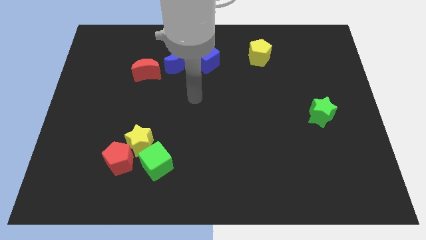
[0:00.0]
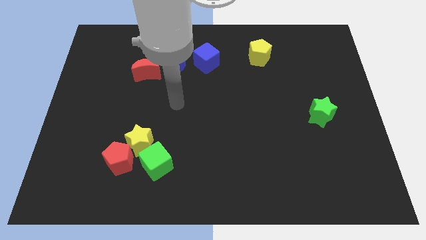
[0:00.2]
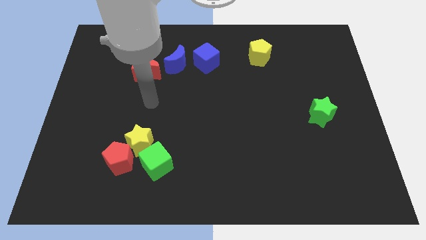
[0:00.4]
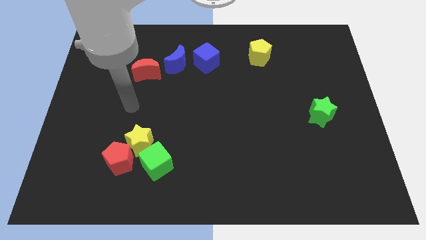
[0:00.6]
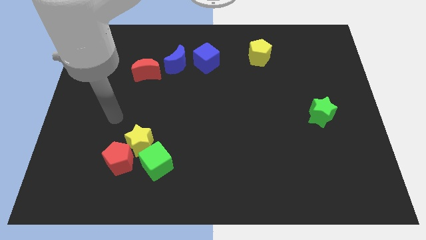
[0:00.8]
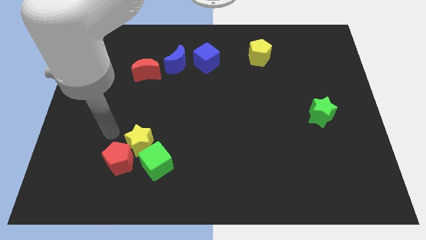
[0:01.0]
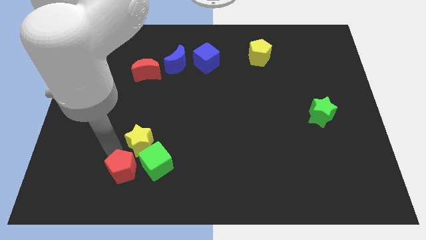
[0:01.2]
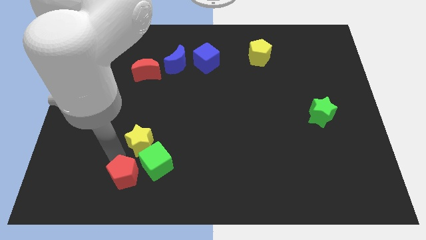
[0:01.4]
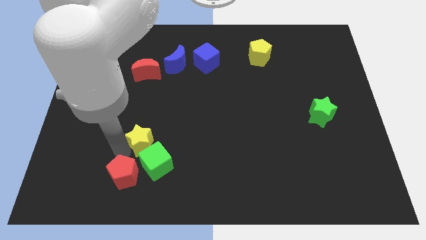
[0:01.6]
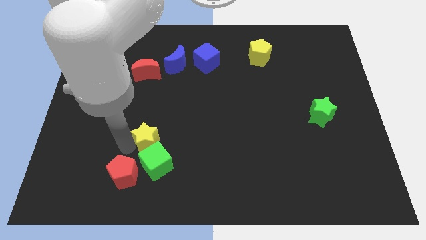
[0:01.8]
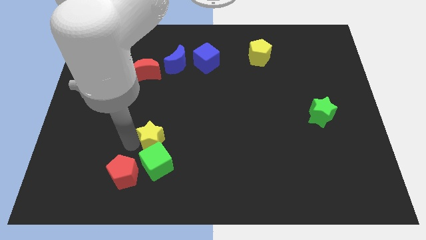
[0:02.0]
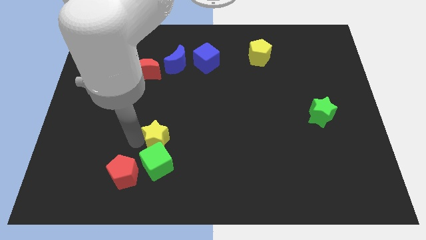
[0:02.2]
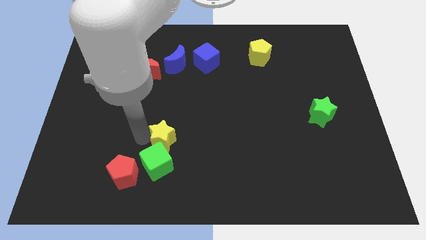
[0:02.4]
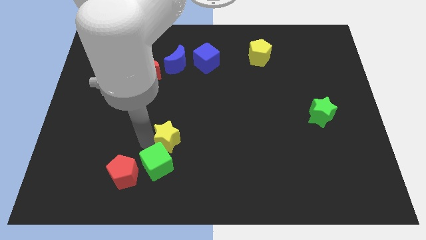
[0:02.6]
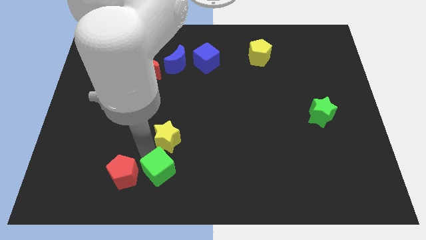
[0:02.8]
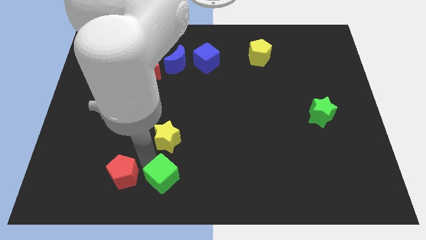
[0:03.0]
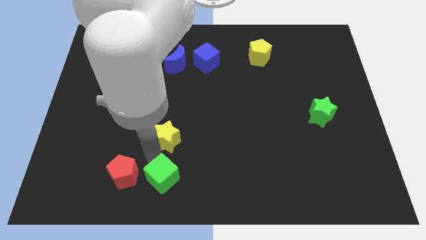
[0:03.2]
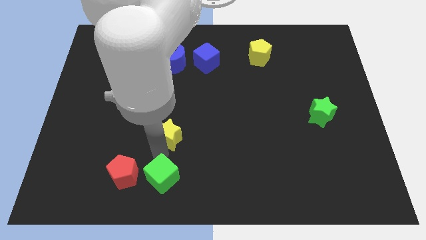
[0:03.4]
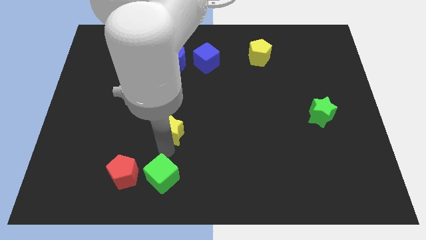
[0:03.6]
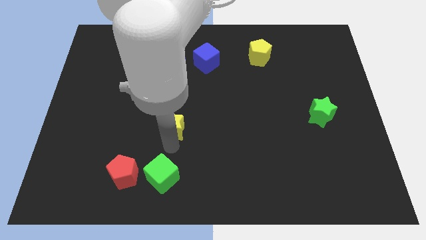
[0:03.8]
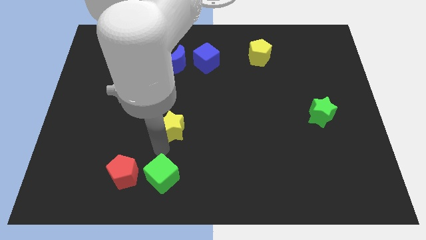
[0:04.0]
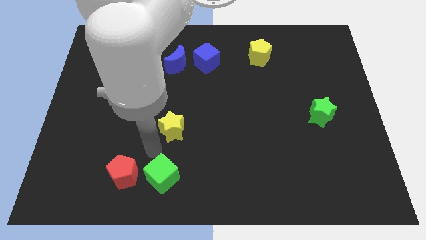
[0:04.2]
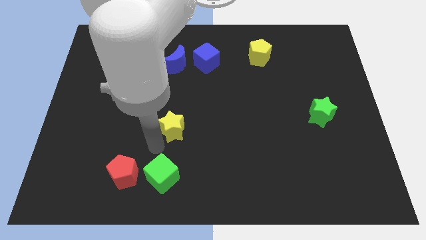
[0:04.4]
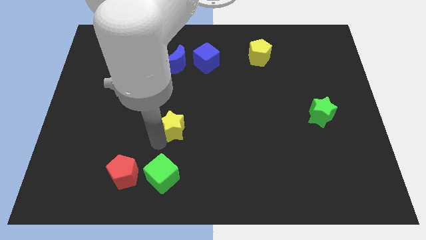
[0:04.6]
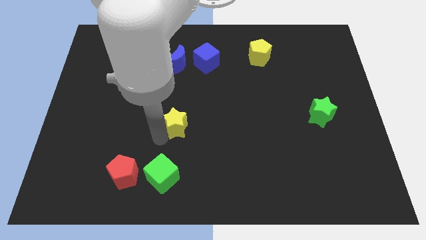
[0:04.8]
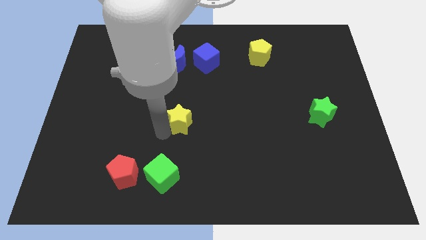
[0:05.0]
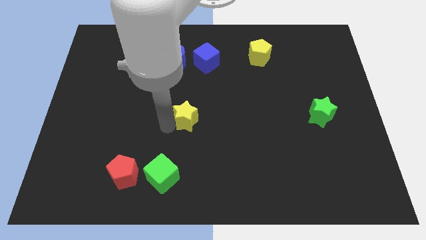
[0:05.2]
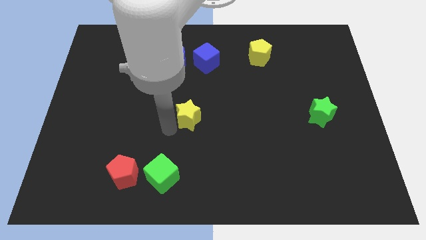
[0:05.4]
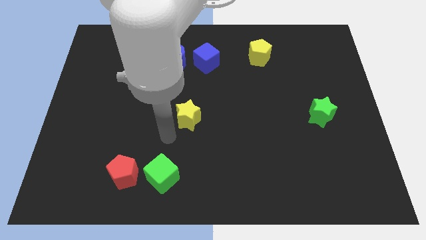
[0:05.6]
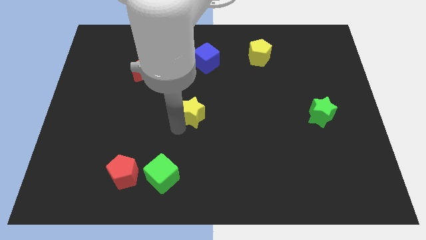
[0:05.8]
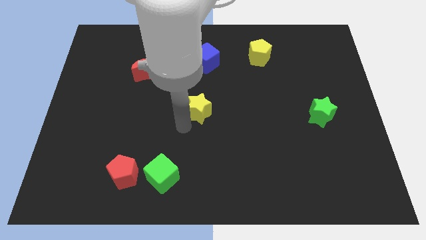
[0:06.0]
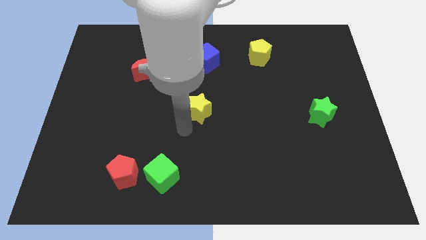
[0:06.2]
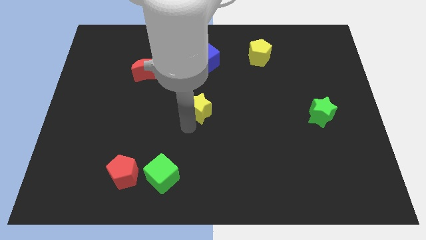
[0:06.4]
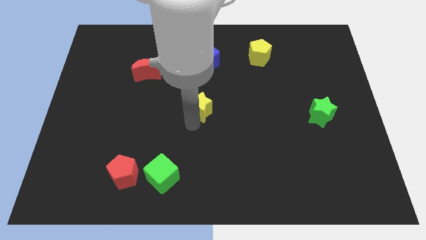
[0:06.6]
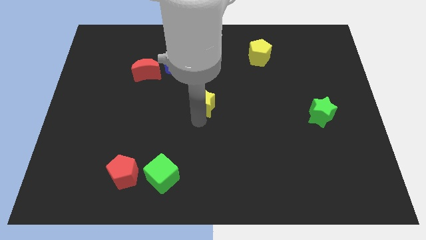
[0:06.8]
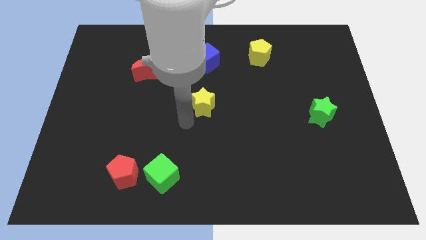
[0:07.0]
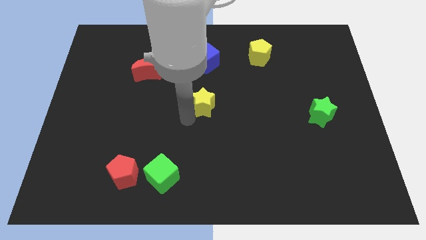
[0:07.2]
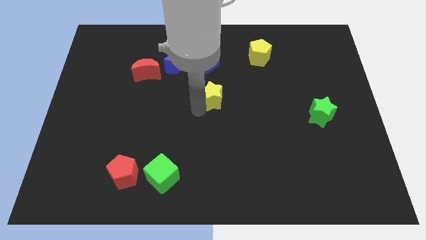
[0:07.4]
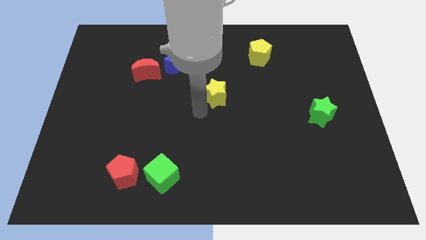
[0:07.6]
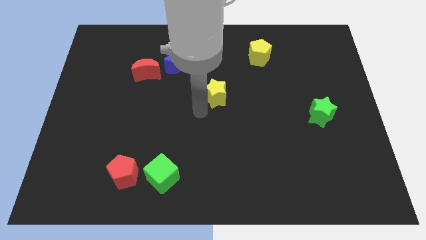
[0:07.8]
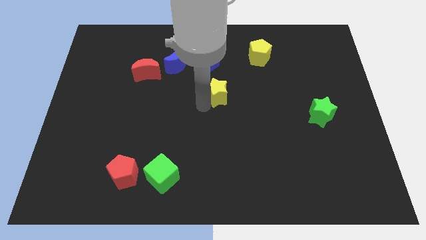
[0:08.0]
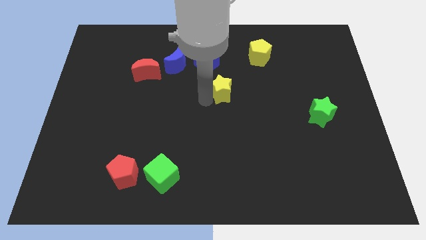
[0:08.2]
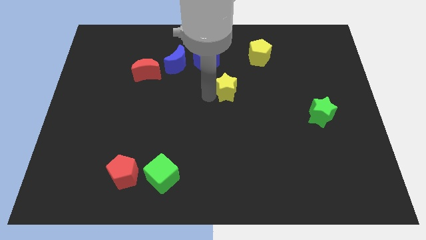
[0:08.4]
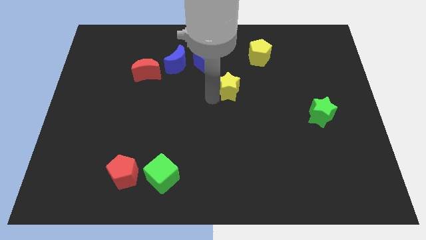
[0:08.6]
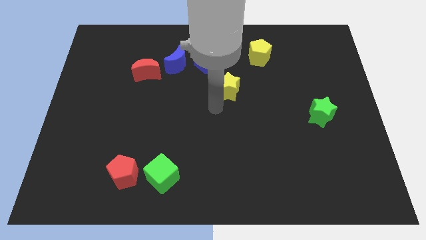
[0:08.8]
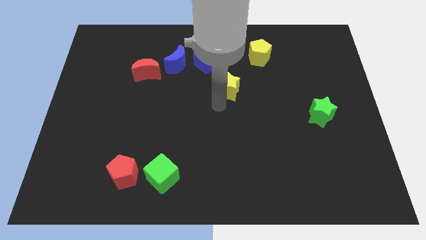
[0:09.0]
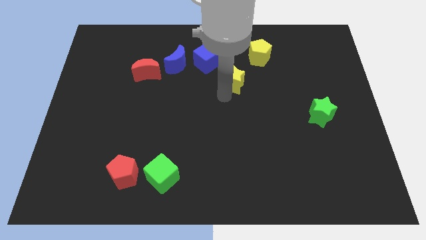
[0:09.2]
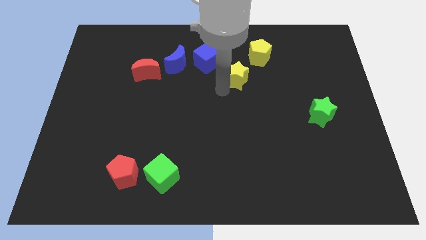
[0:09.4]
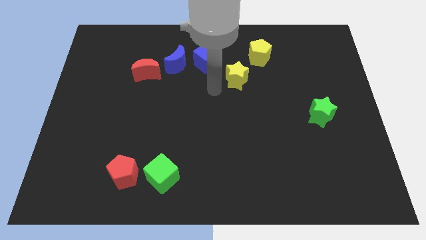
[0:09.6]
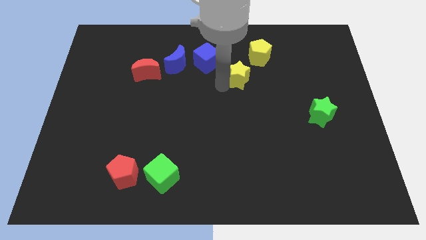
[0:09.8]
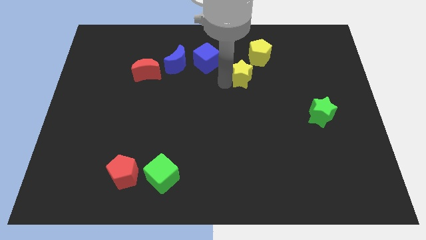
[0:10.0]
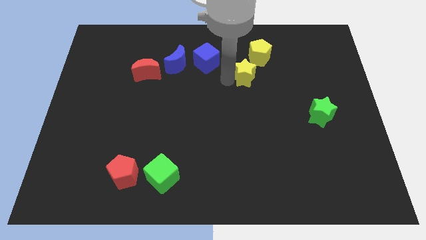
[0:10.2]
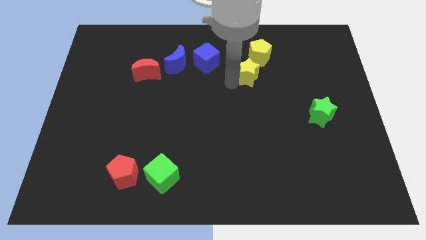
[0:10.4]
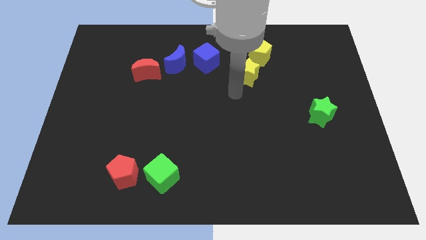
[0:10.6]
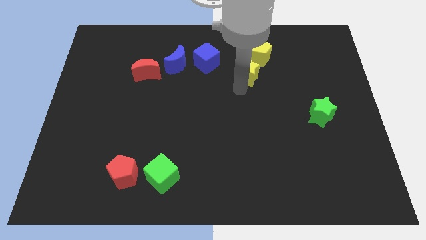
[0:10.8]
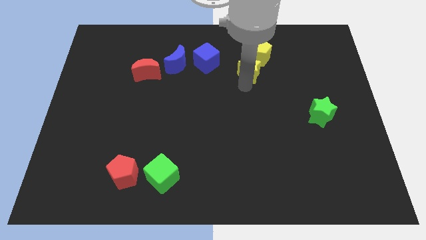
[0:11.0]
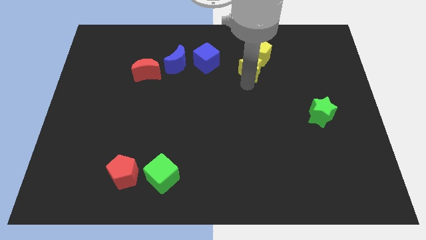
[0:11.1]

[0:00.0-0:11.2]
push the yellow star close to the yellow pentagon

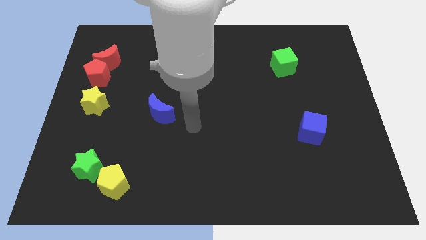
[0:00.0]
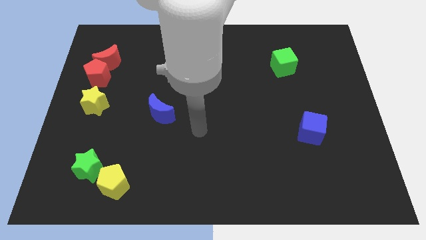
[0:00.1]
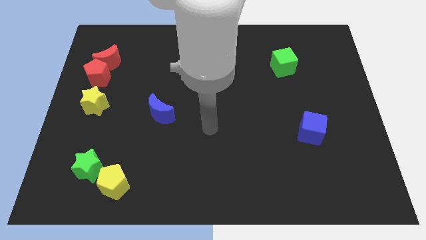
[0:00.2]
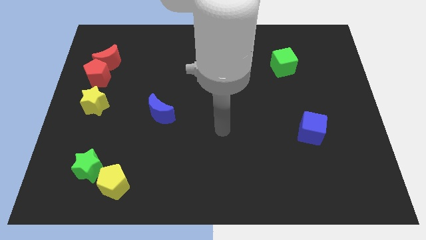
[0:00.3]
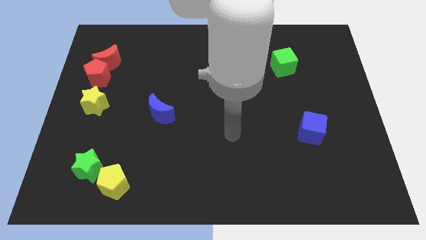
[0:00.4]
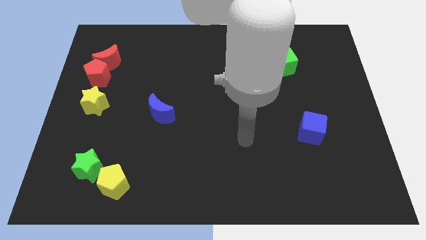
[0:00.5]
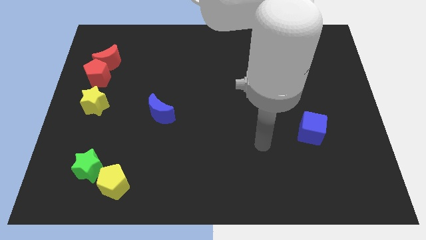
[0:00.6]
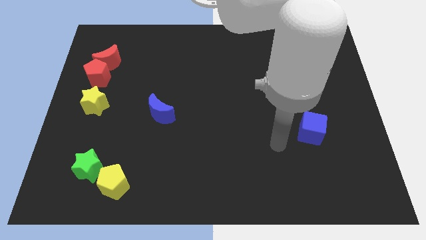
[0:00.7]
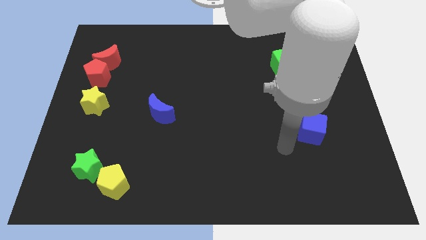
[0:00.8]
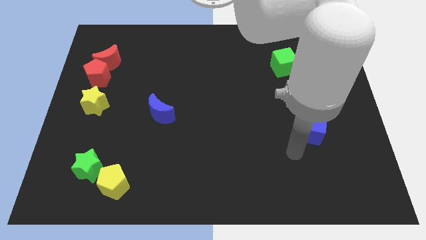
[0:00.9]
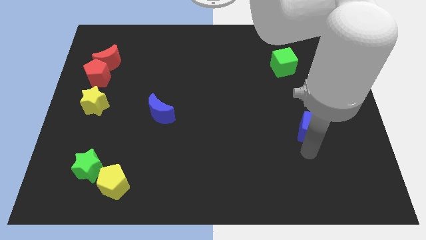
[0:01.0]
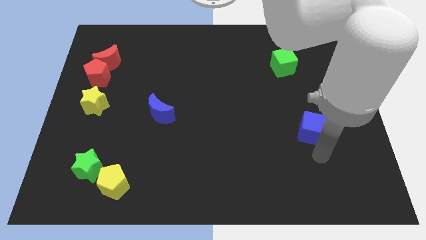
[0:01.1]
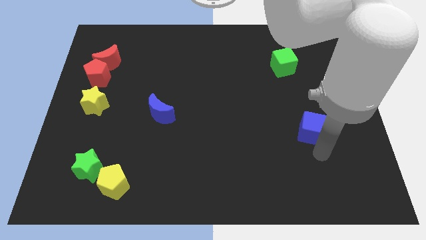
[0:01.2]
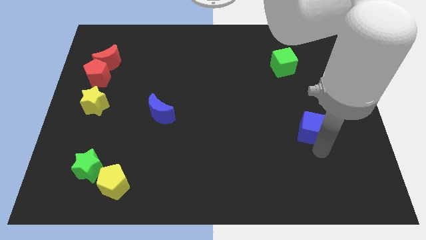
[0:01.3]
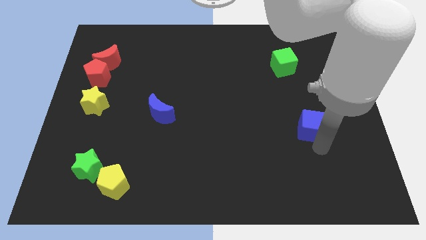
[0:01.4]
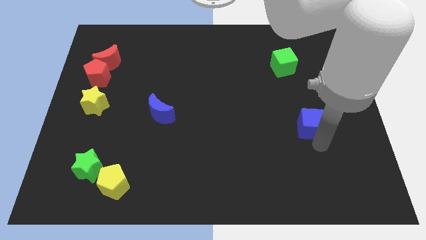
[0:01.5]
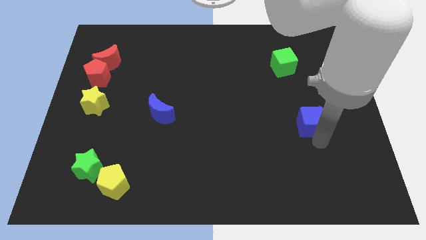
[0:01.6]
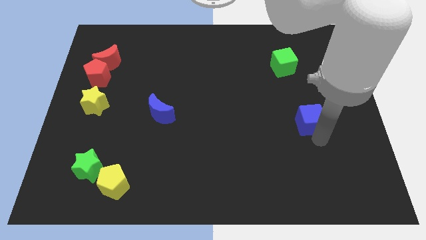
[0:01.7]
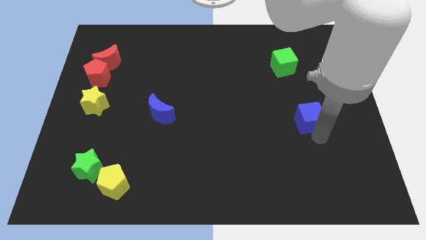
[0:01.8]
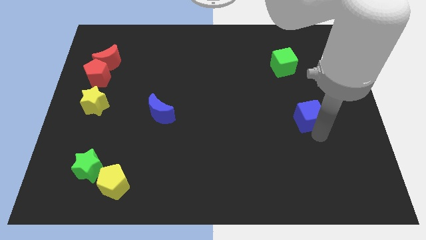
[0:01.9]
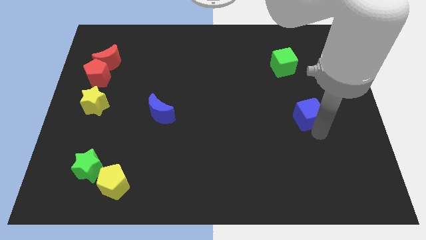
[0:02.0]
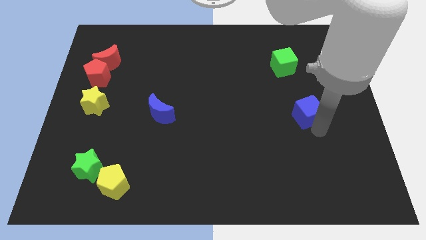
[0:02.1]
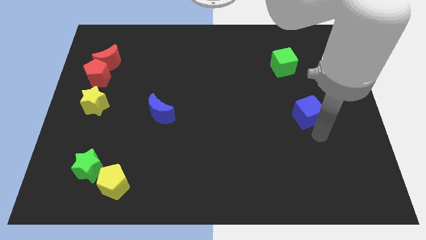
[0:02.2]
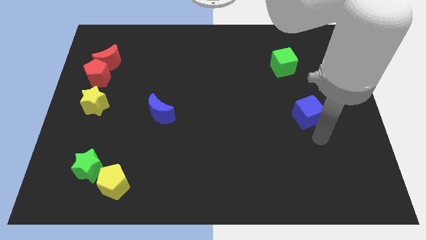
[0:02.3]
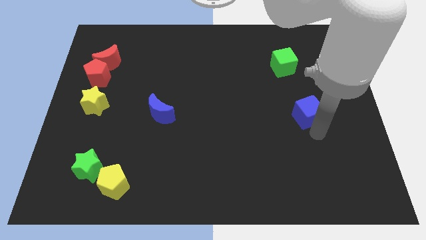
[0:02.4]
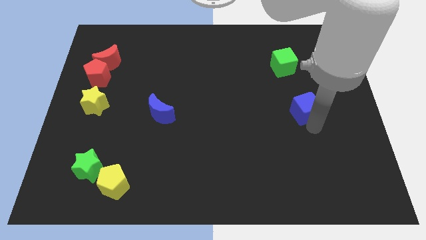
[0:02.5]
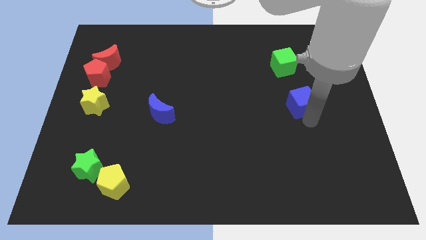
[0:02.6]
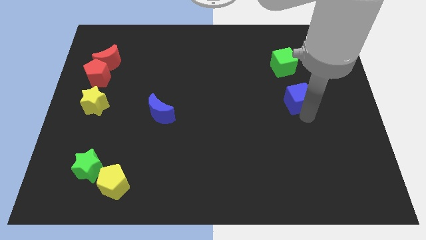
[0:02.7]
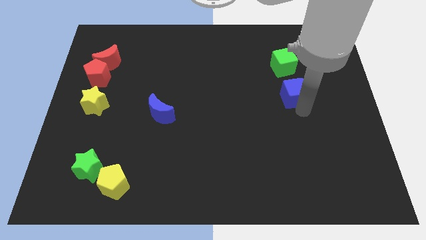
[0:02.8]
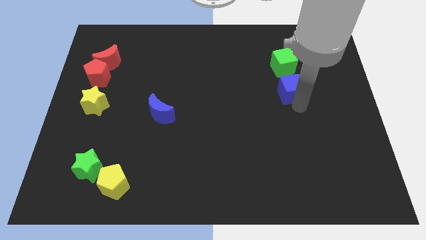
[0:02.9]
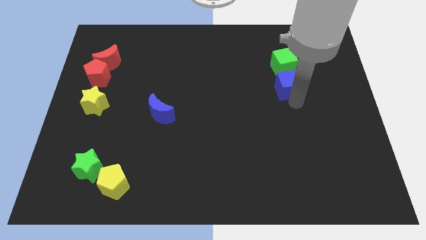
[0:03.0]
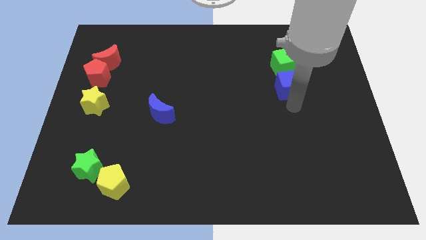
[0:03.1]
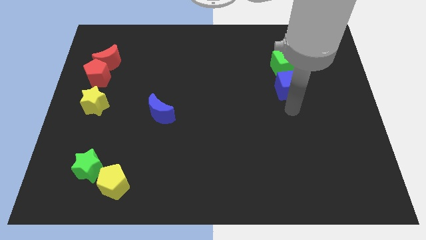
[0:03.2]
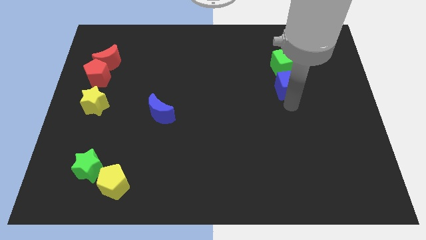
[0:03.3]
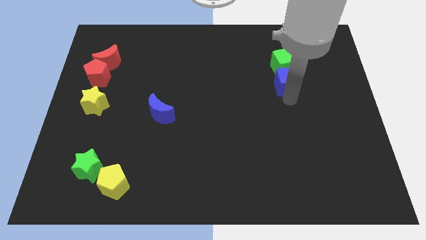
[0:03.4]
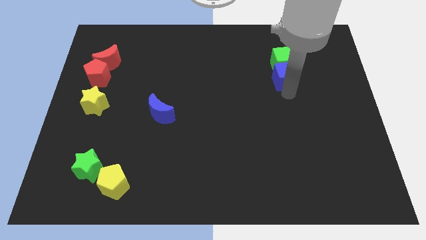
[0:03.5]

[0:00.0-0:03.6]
move the blue cube towards the green cube
